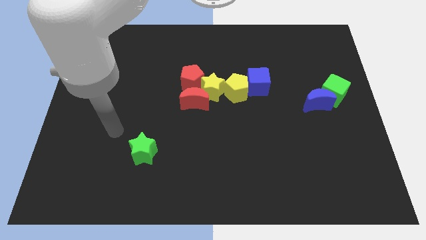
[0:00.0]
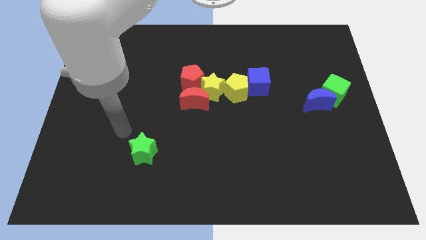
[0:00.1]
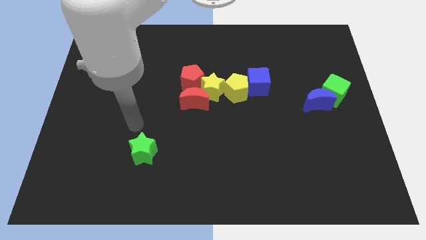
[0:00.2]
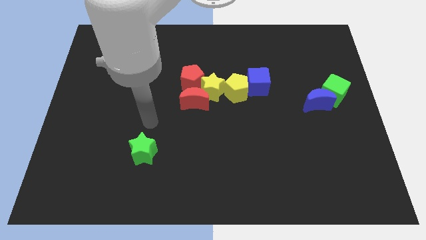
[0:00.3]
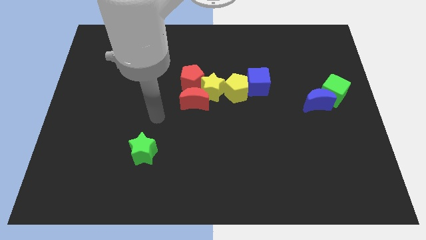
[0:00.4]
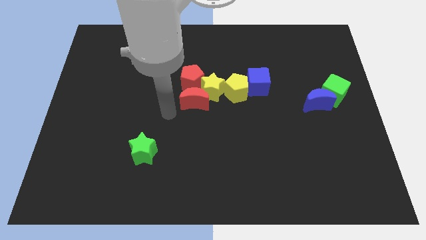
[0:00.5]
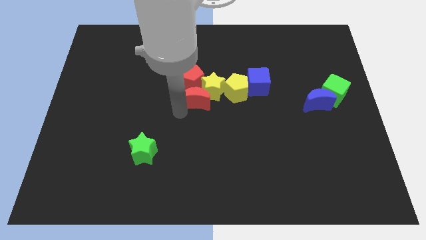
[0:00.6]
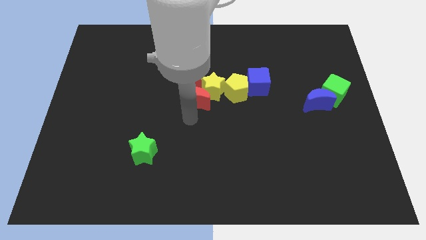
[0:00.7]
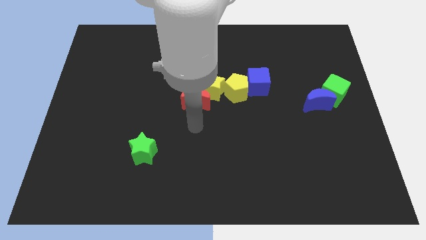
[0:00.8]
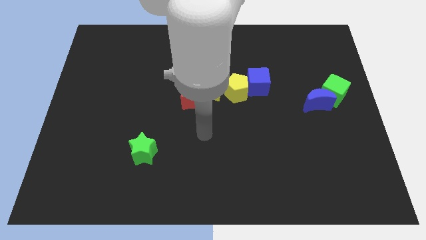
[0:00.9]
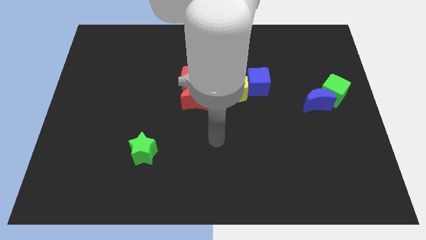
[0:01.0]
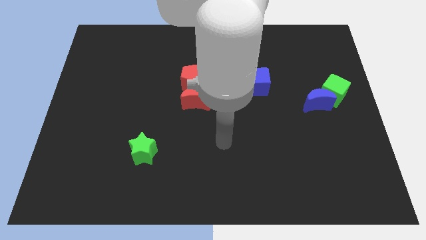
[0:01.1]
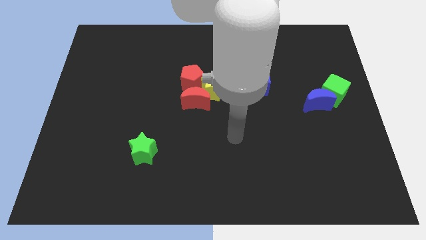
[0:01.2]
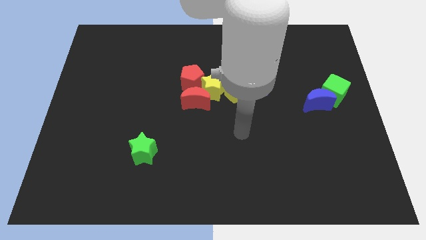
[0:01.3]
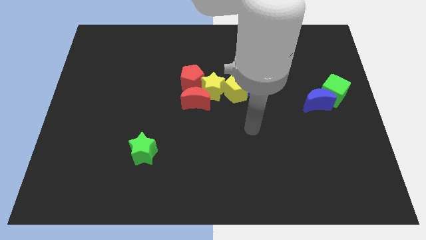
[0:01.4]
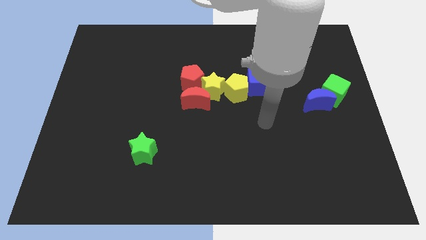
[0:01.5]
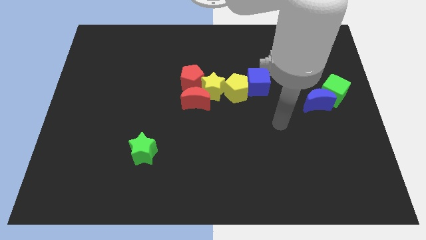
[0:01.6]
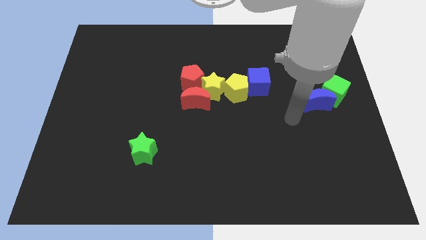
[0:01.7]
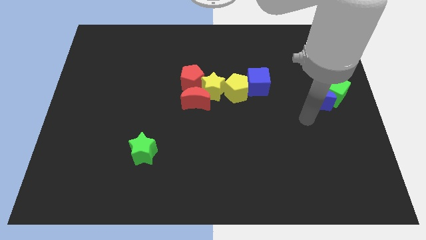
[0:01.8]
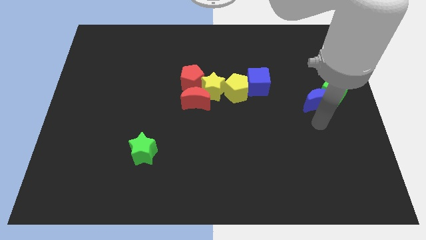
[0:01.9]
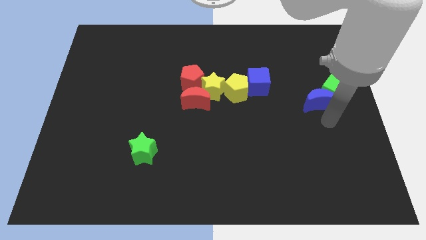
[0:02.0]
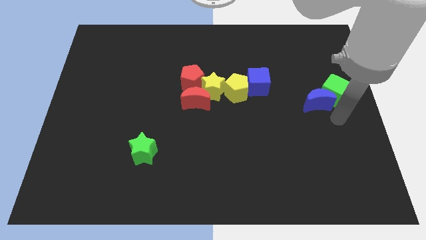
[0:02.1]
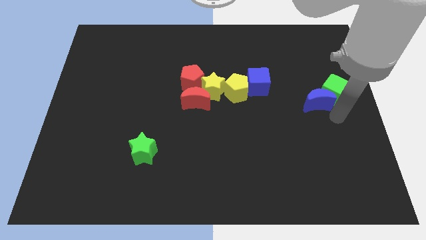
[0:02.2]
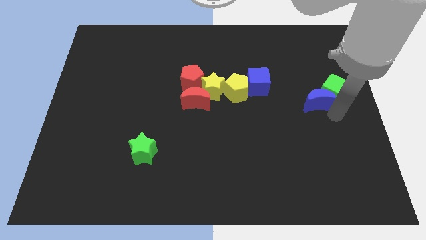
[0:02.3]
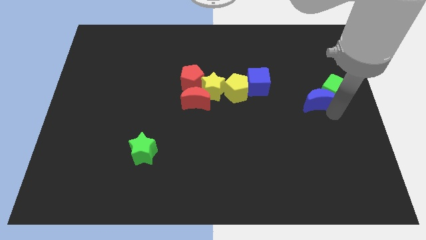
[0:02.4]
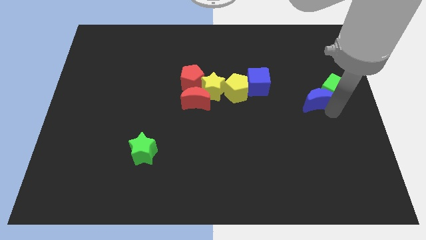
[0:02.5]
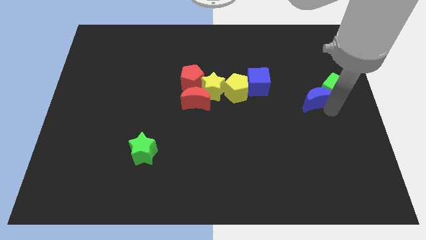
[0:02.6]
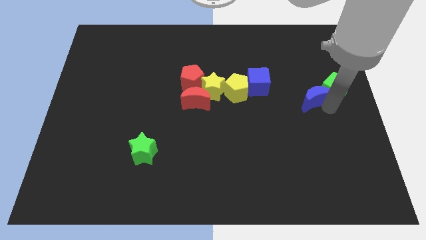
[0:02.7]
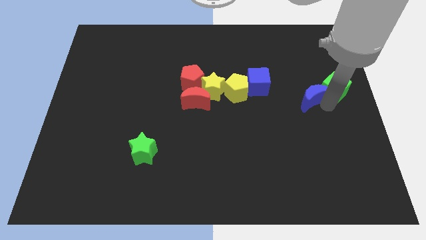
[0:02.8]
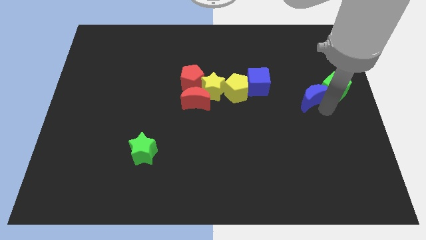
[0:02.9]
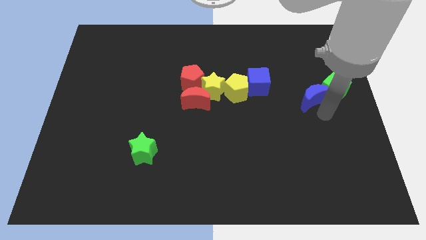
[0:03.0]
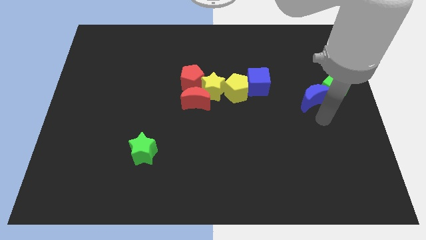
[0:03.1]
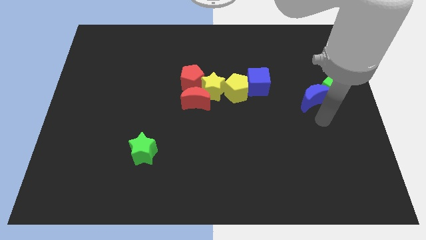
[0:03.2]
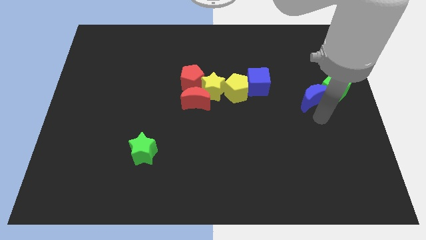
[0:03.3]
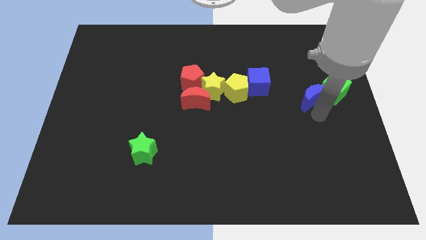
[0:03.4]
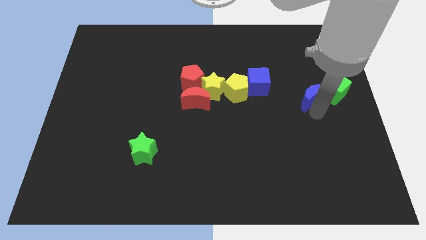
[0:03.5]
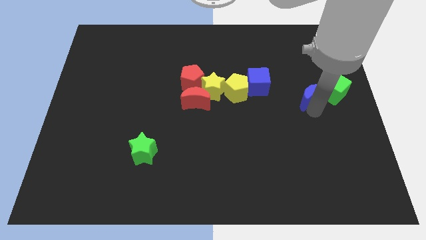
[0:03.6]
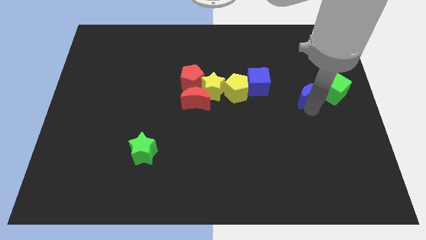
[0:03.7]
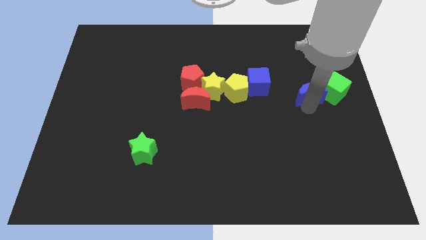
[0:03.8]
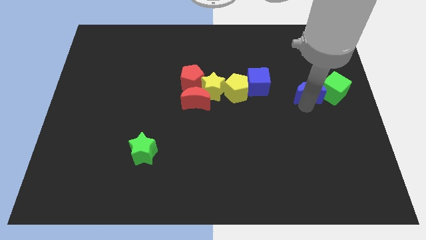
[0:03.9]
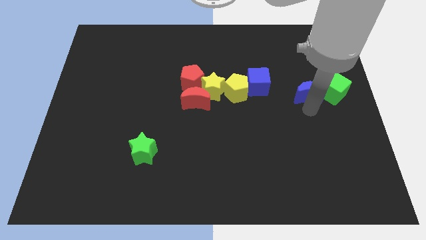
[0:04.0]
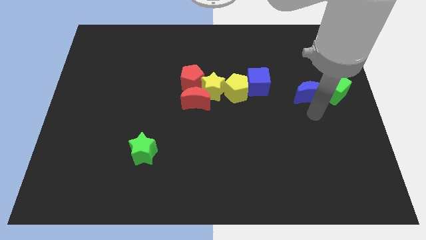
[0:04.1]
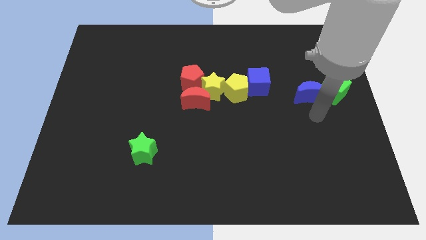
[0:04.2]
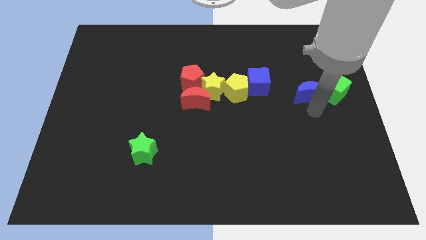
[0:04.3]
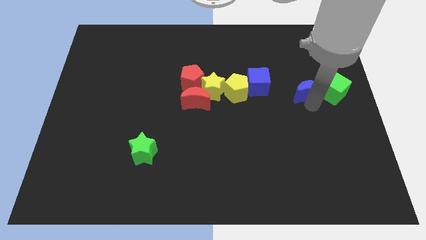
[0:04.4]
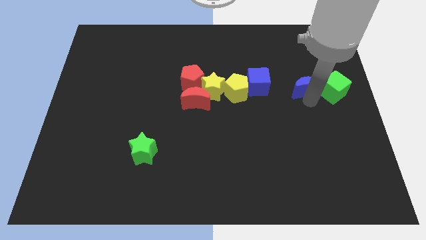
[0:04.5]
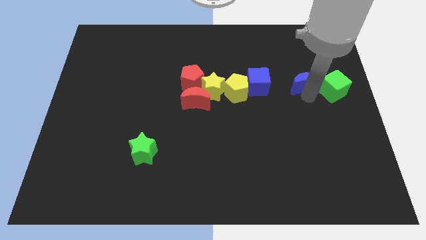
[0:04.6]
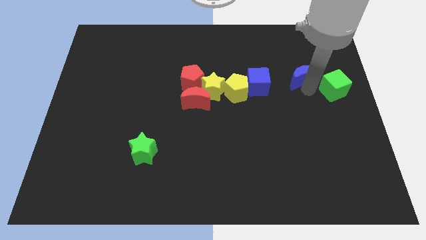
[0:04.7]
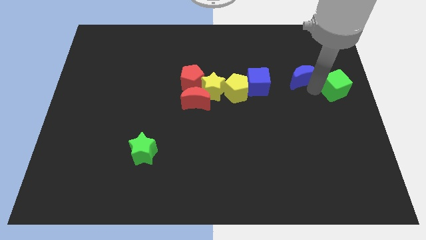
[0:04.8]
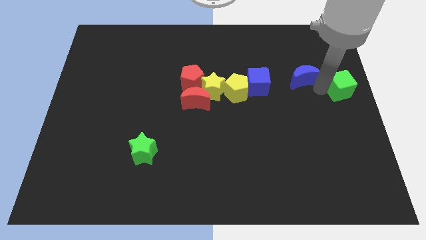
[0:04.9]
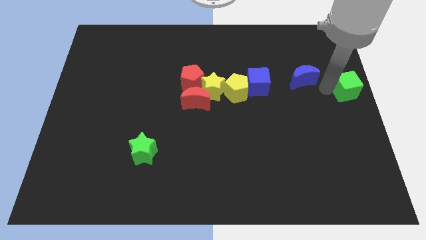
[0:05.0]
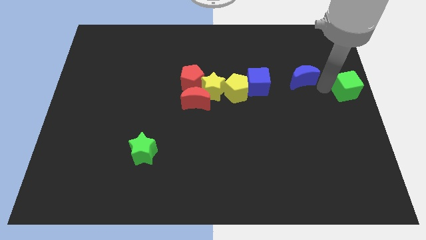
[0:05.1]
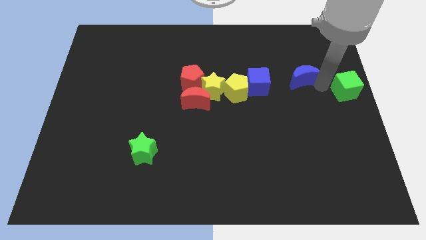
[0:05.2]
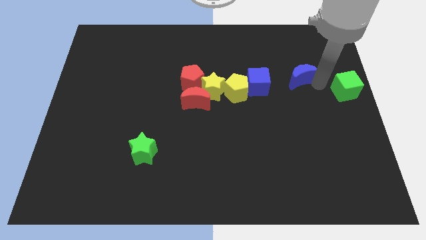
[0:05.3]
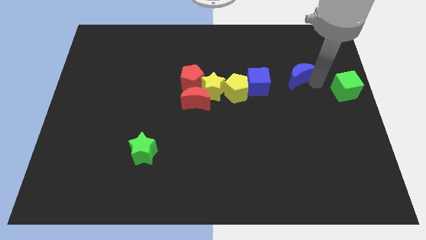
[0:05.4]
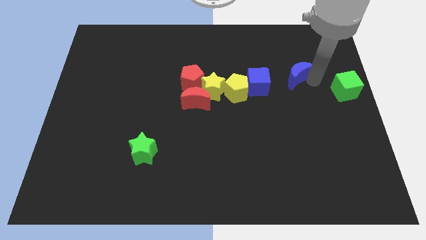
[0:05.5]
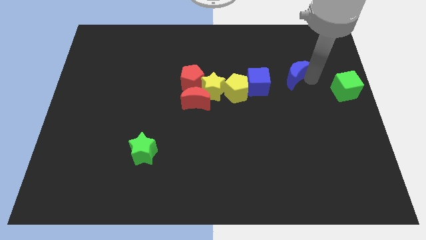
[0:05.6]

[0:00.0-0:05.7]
slide the blue moon to the top right side of the blue cube

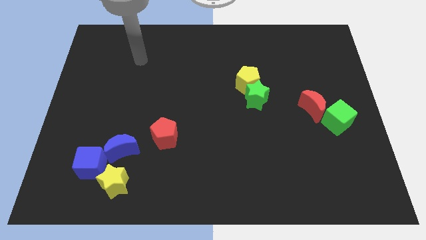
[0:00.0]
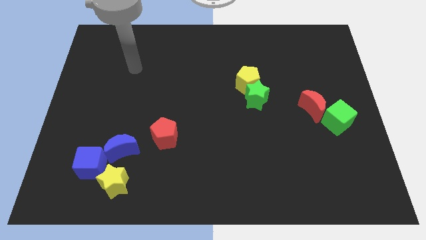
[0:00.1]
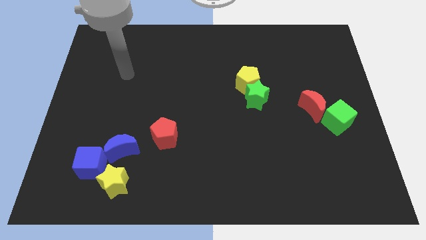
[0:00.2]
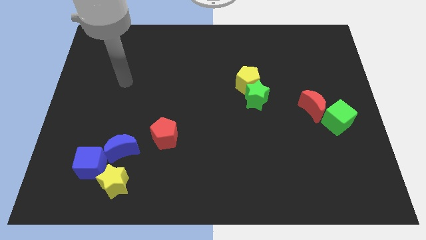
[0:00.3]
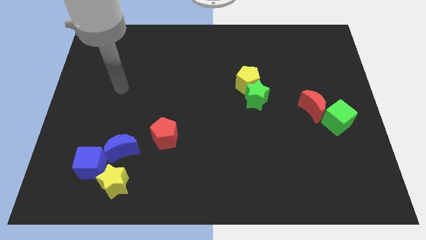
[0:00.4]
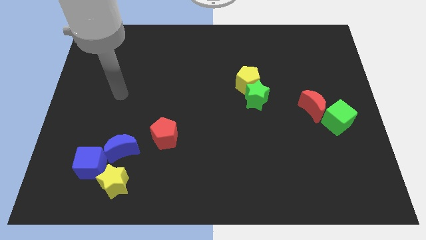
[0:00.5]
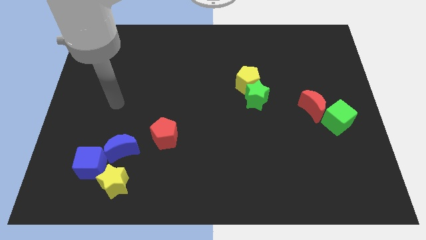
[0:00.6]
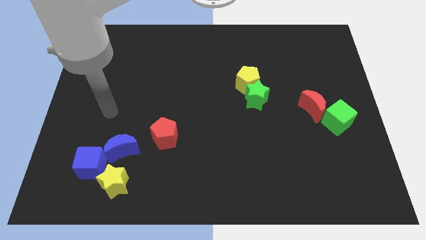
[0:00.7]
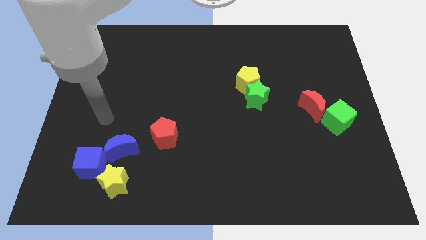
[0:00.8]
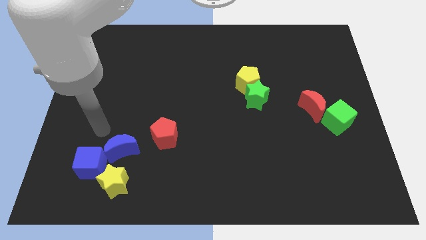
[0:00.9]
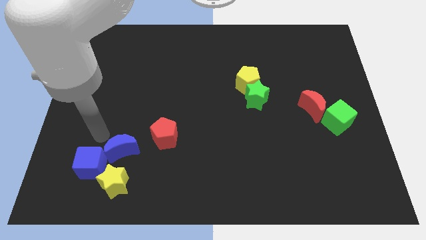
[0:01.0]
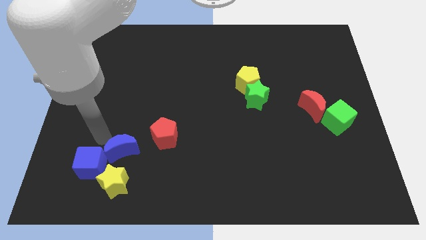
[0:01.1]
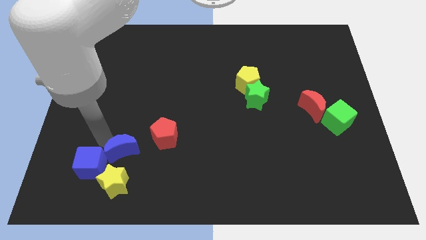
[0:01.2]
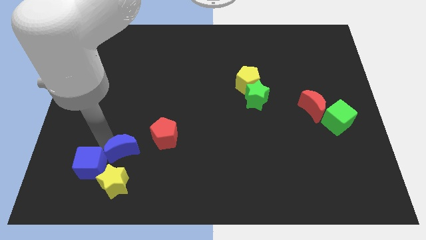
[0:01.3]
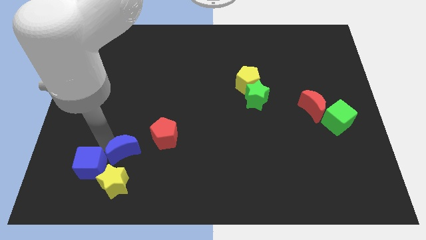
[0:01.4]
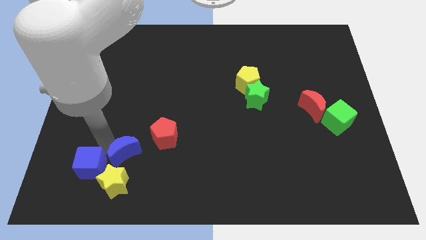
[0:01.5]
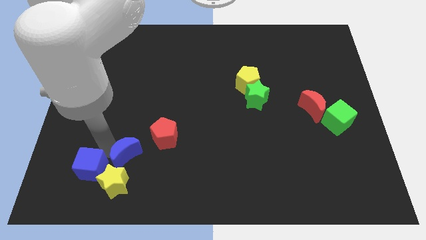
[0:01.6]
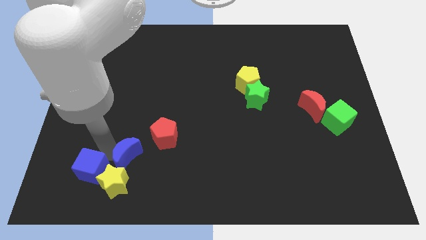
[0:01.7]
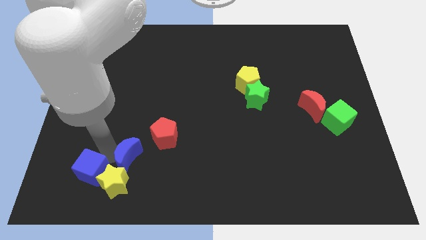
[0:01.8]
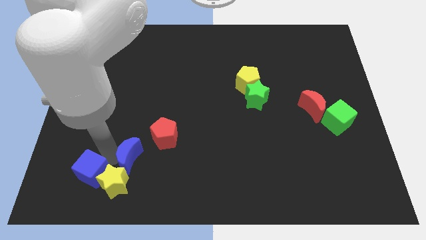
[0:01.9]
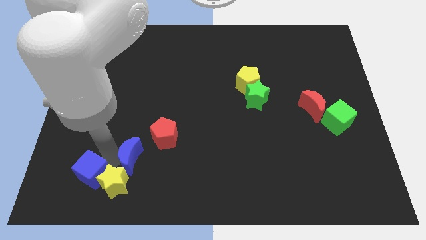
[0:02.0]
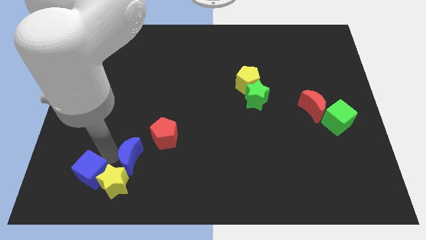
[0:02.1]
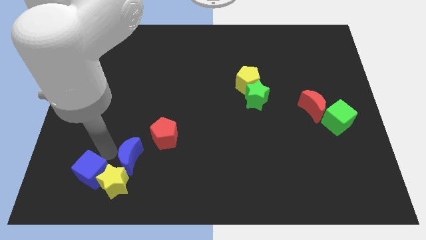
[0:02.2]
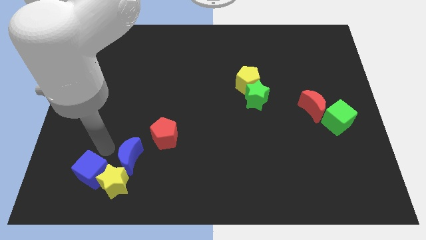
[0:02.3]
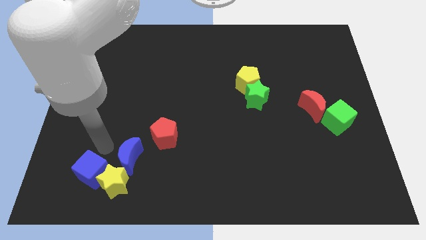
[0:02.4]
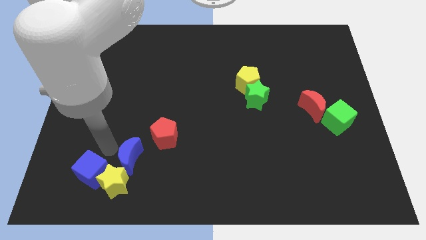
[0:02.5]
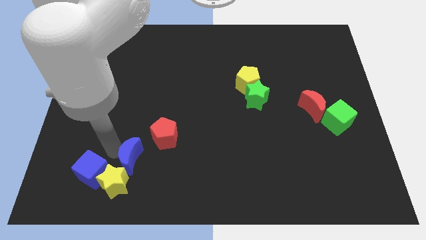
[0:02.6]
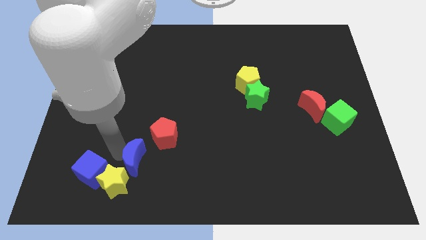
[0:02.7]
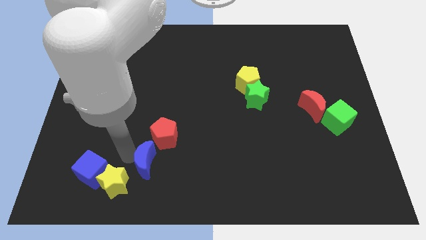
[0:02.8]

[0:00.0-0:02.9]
move the blue moon to the bottom side of the red pentagon
